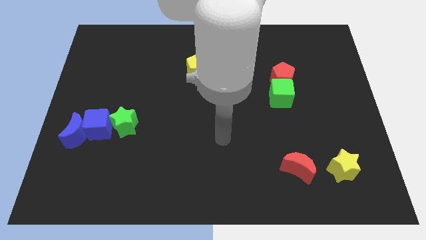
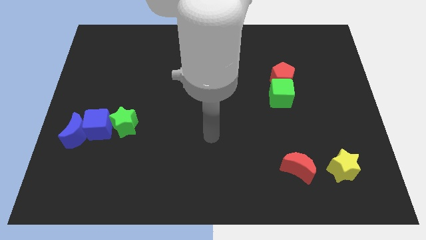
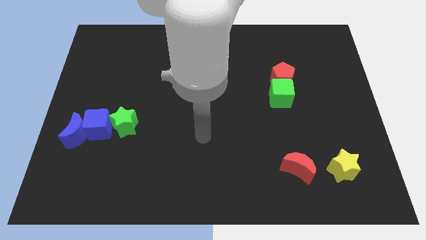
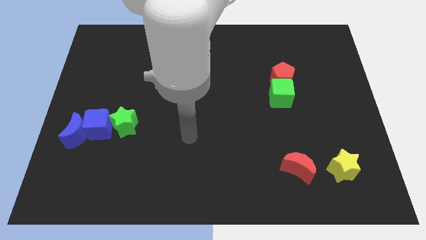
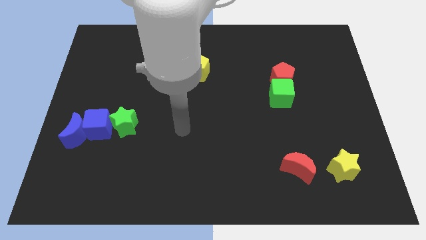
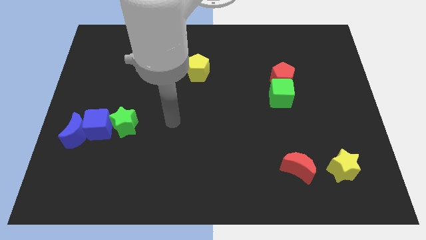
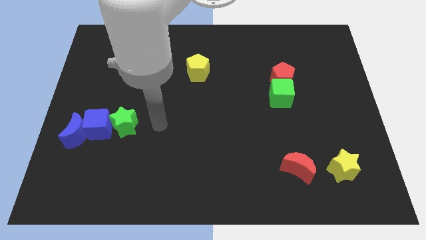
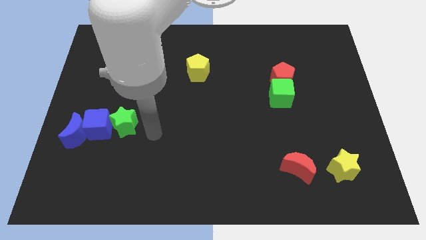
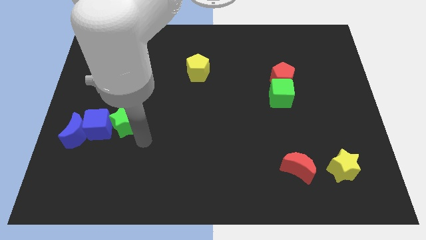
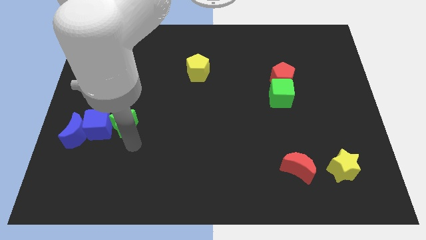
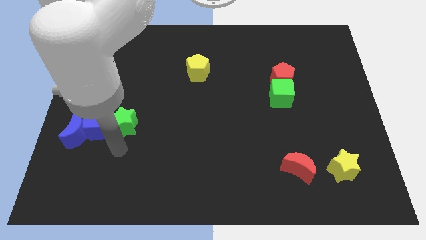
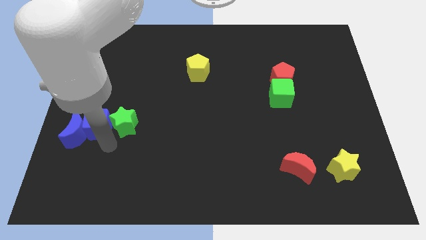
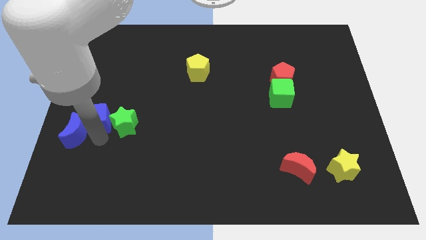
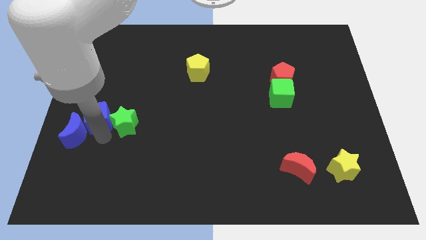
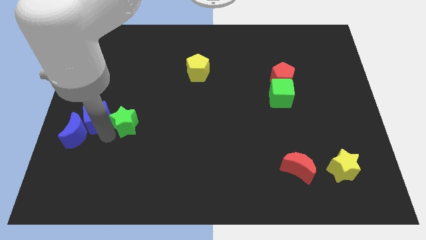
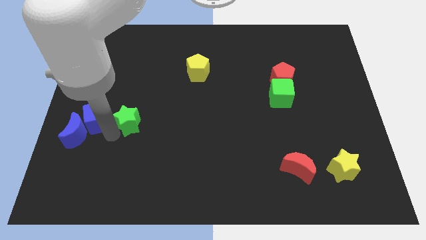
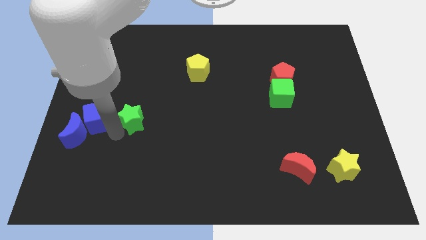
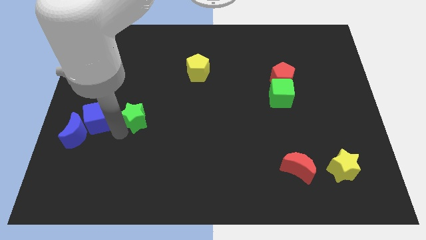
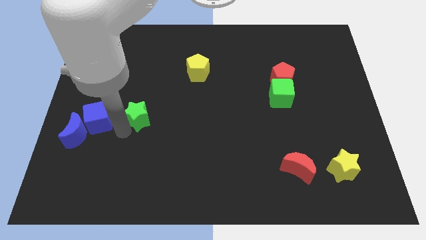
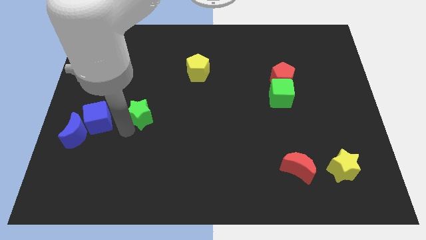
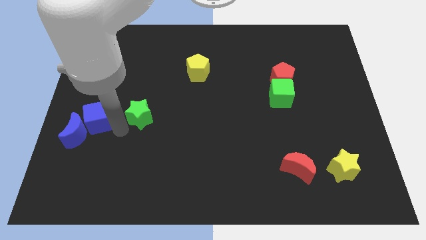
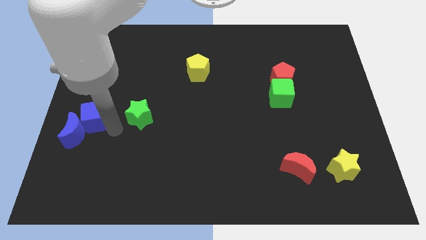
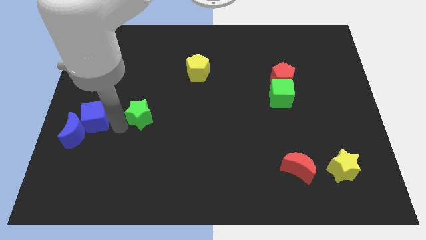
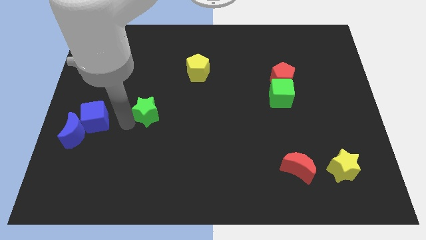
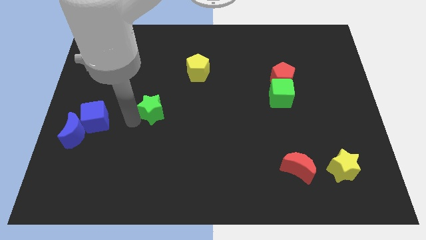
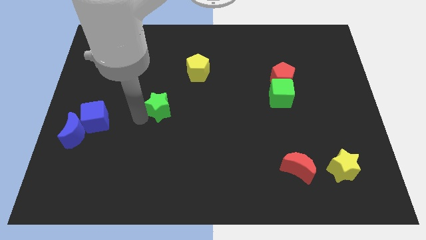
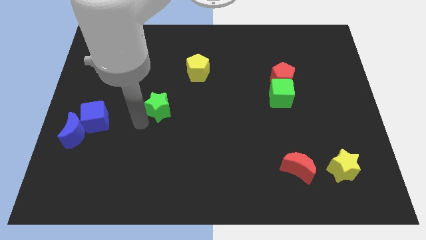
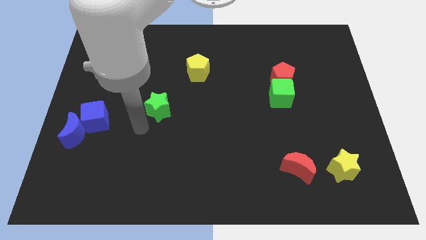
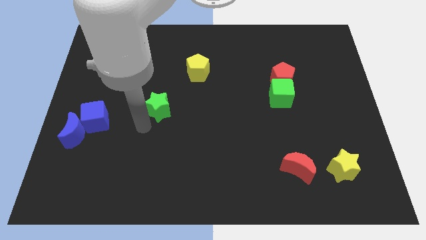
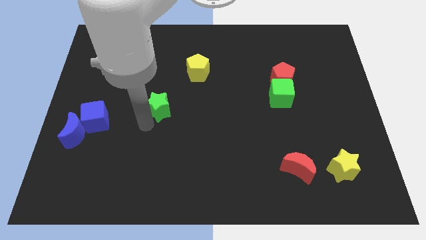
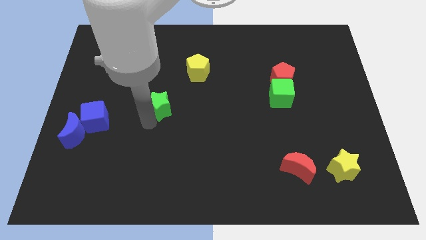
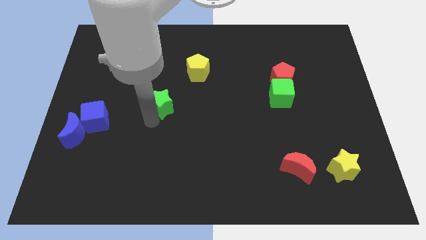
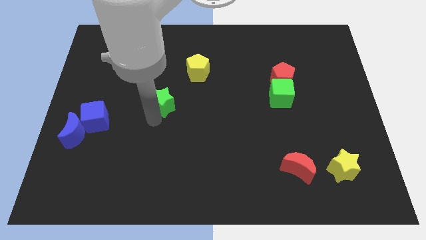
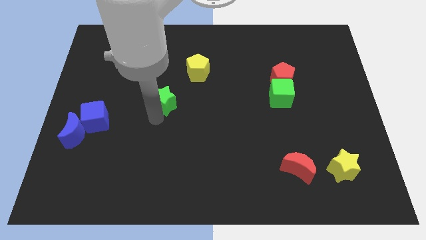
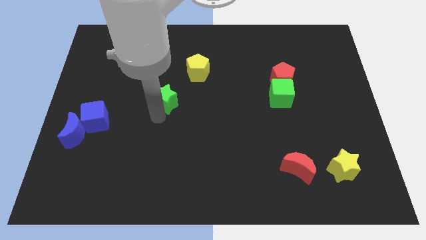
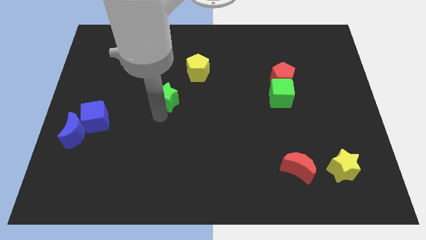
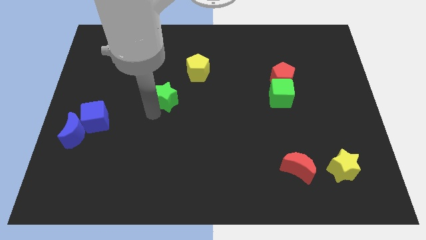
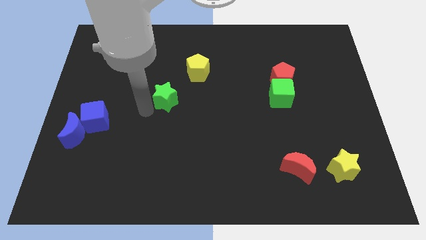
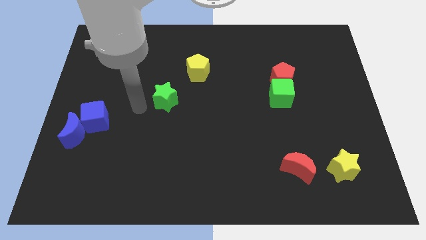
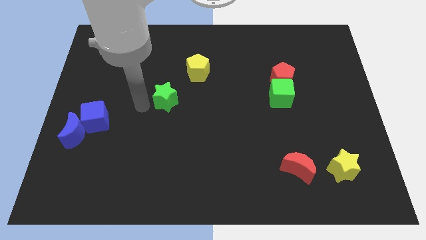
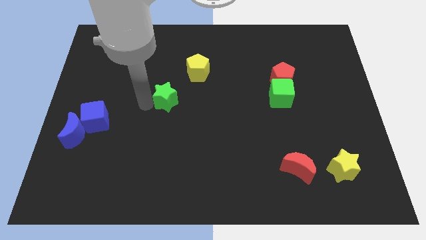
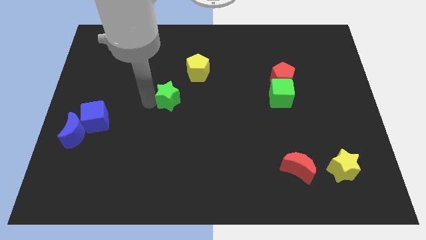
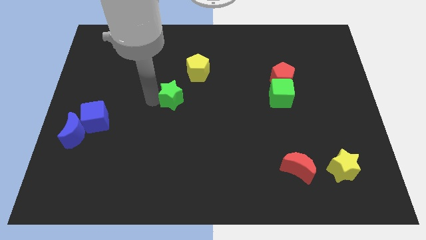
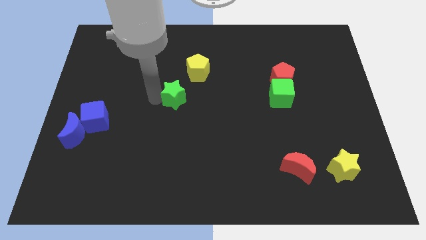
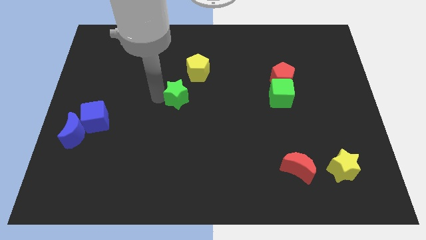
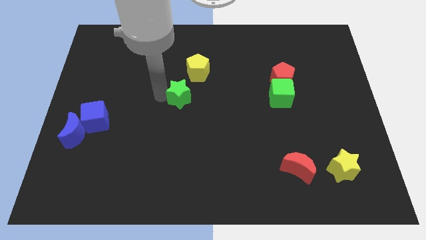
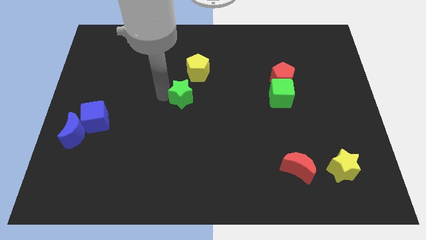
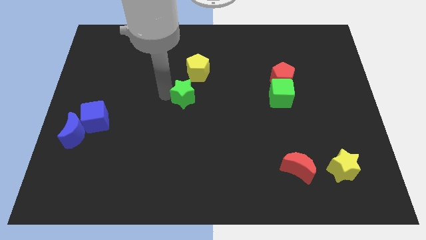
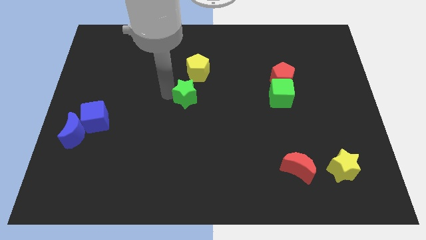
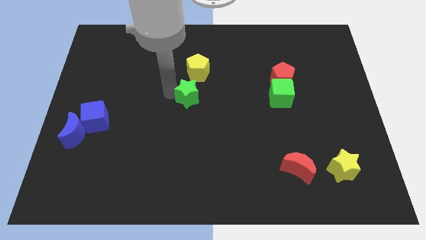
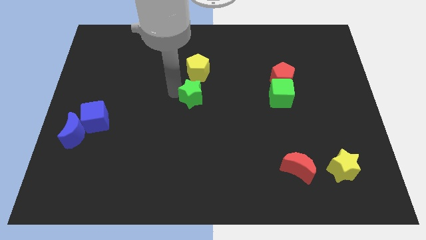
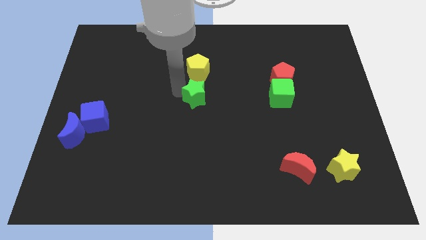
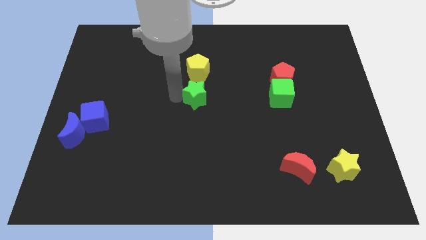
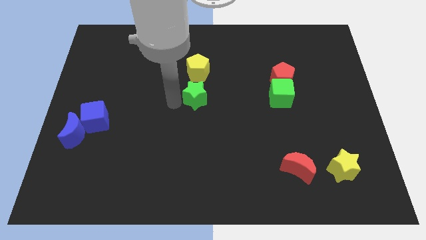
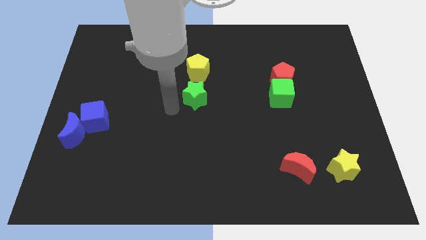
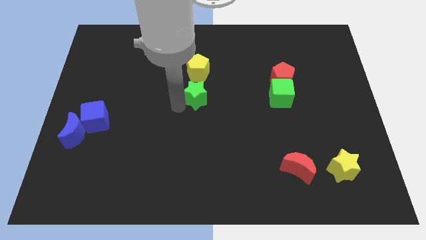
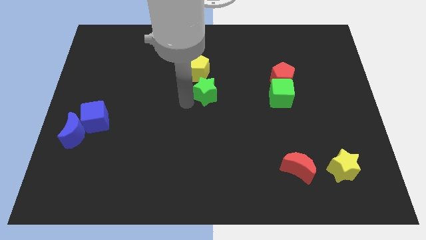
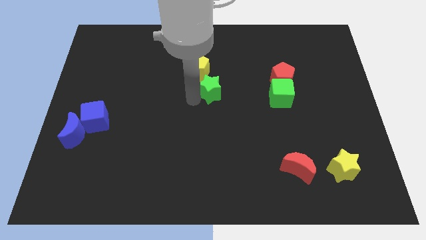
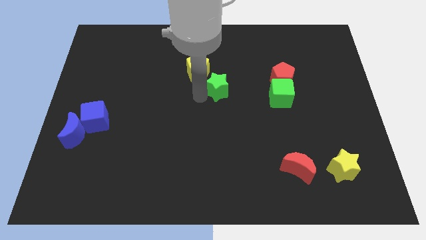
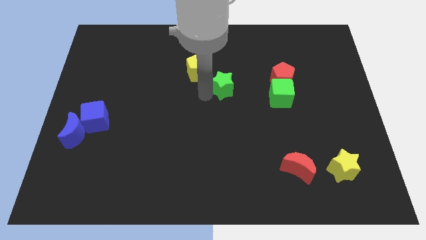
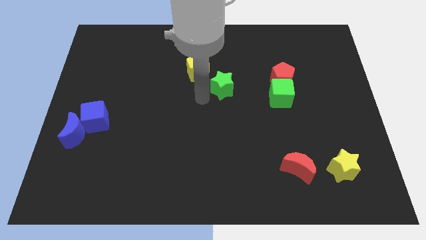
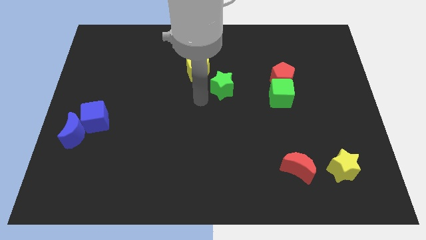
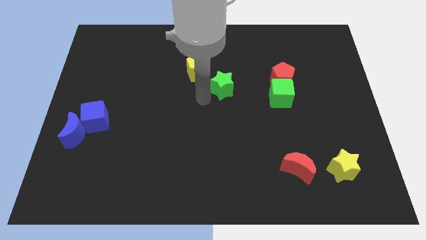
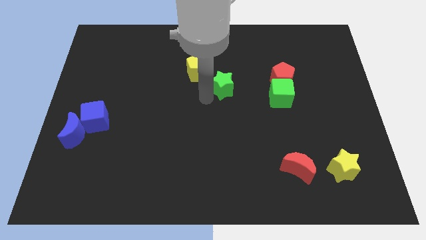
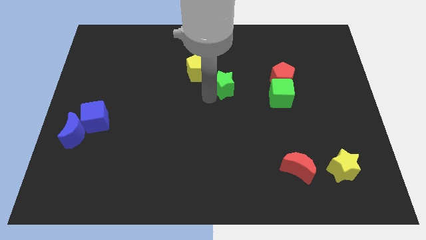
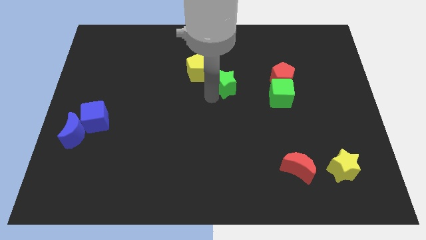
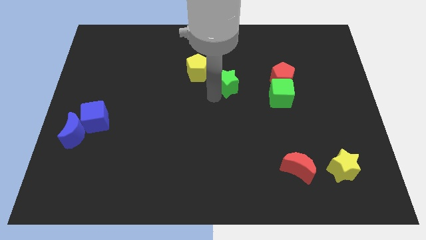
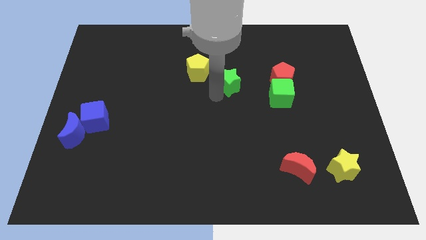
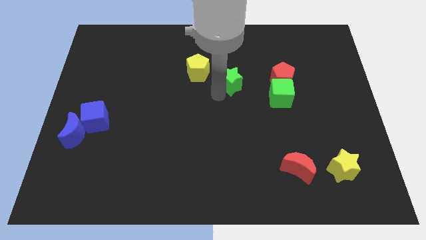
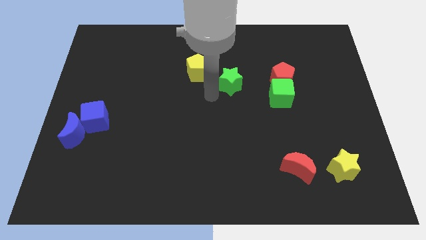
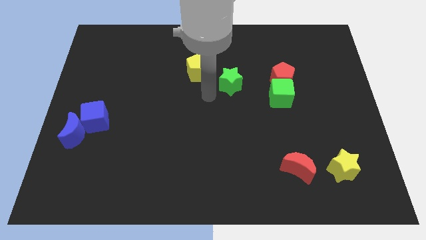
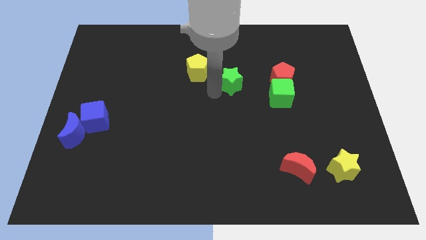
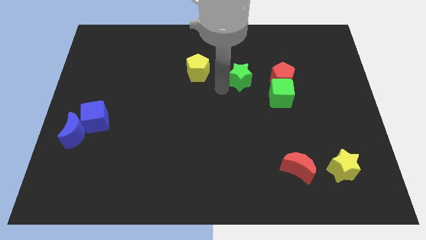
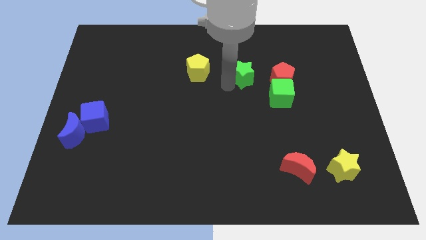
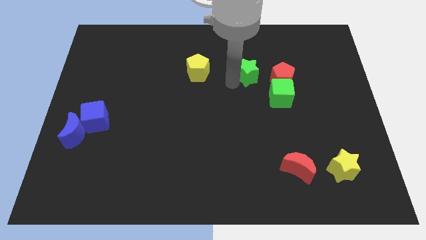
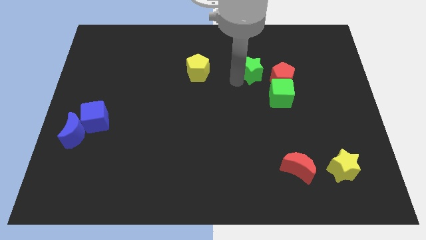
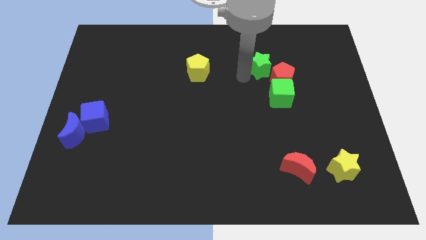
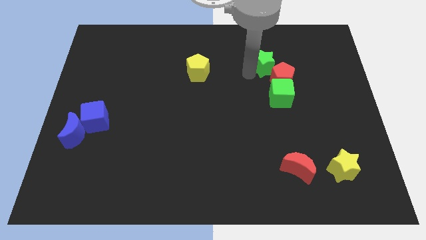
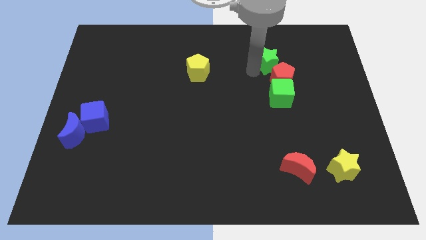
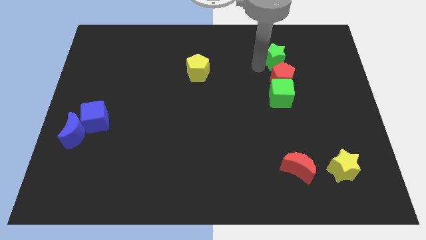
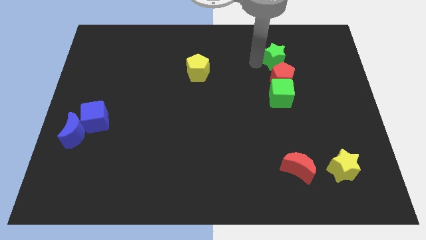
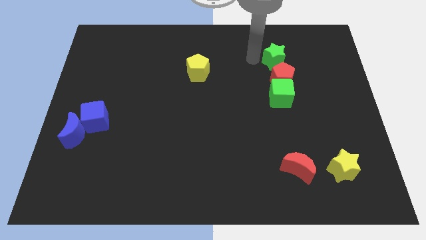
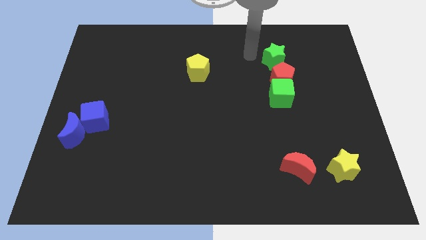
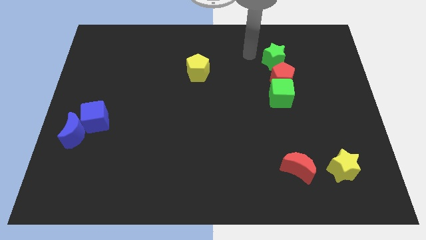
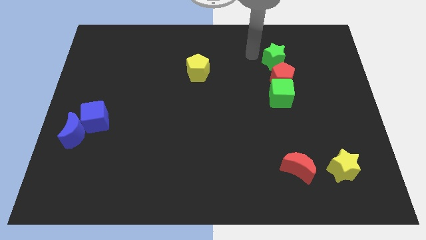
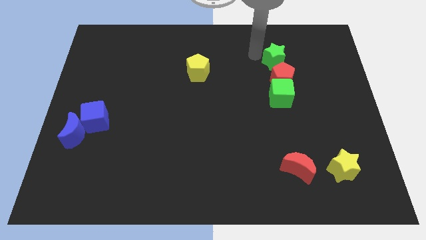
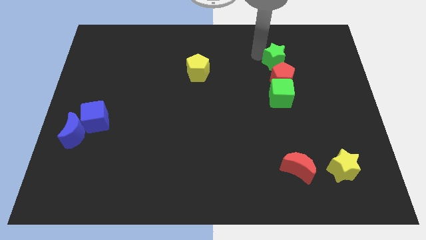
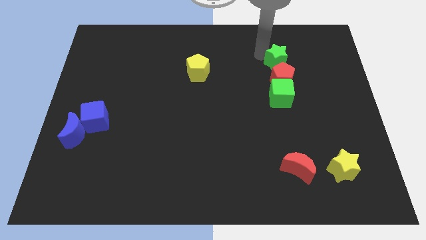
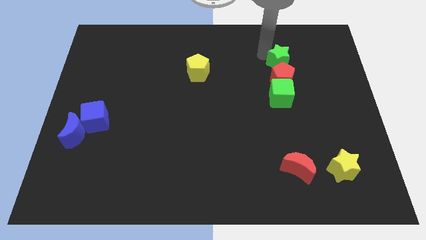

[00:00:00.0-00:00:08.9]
put the green star diagonally up and to the right of the red pentagon
